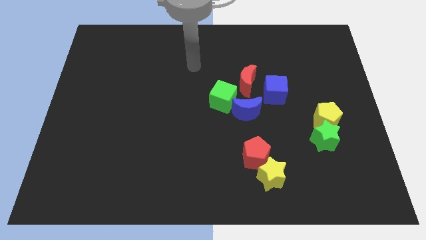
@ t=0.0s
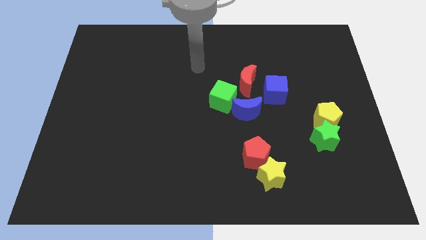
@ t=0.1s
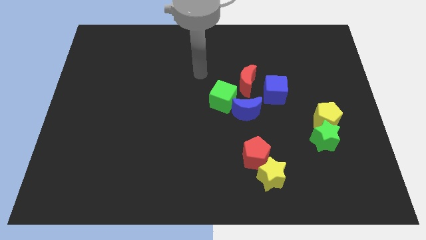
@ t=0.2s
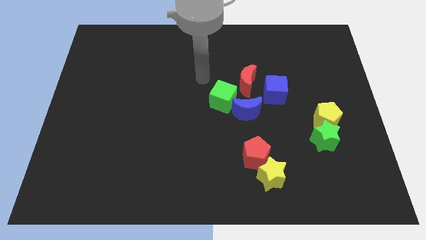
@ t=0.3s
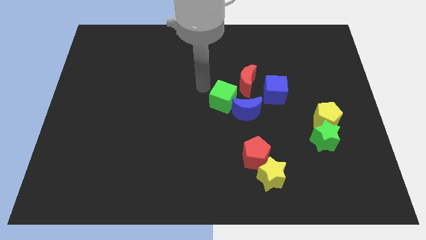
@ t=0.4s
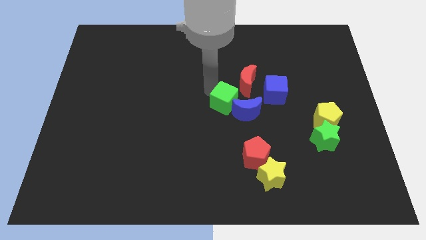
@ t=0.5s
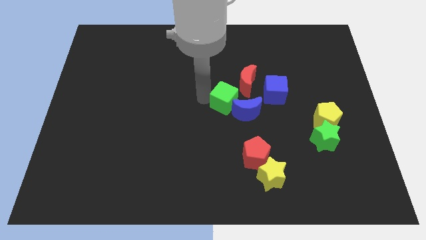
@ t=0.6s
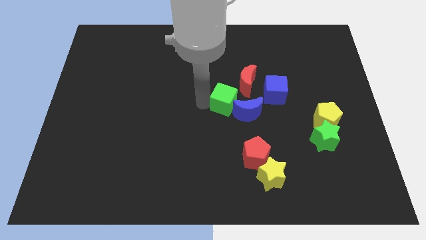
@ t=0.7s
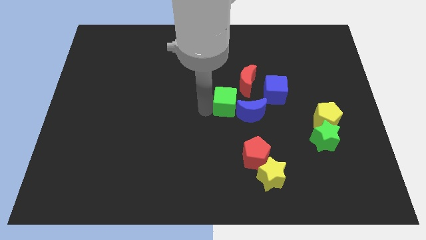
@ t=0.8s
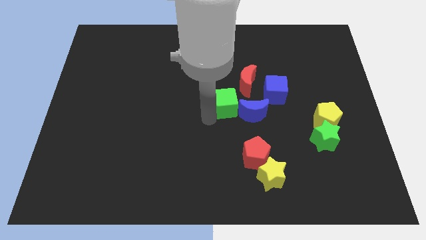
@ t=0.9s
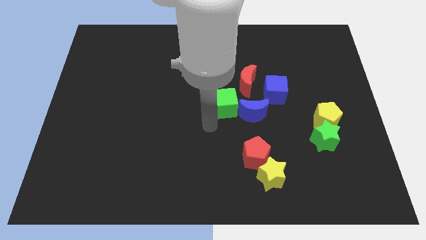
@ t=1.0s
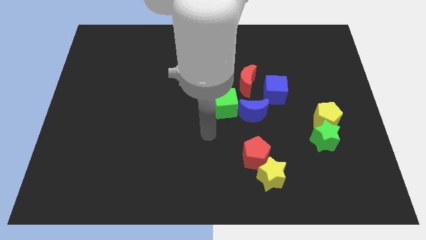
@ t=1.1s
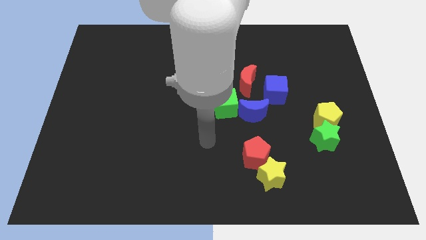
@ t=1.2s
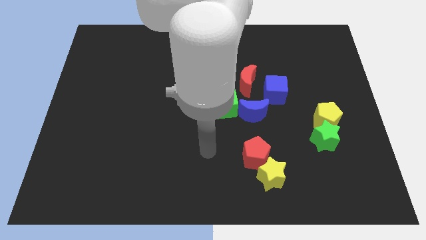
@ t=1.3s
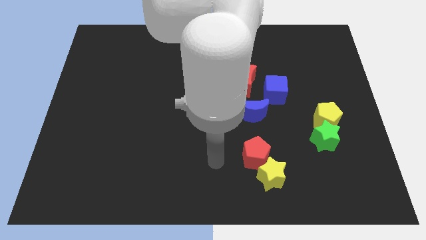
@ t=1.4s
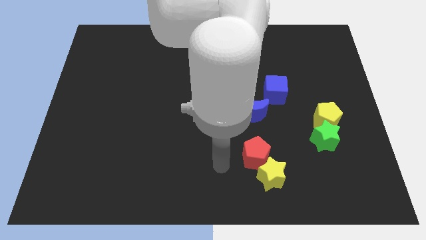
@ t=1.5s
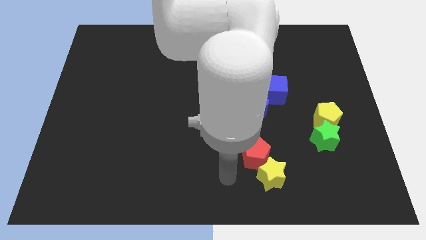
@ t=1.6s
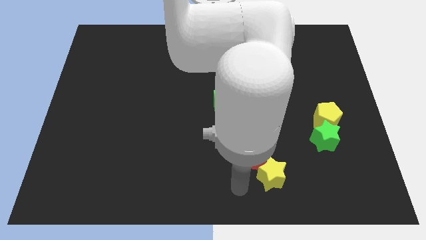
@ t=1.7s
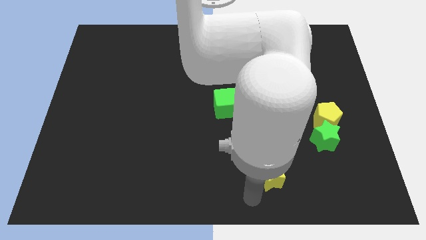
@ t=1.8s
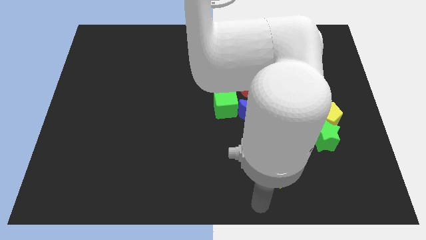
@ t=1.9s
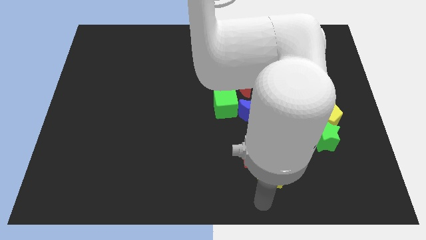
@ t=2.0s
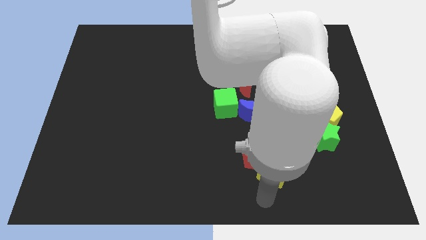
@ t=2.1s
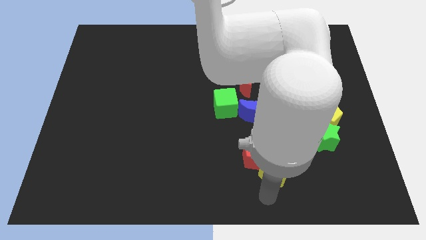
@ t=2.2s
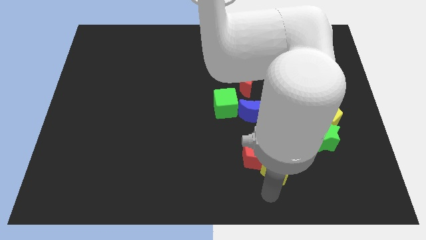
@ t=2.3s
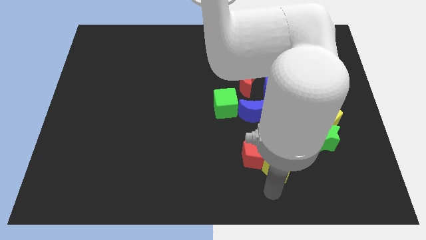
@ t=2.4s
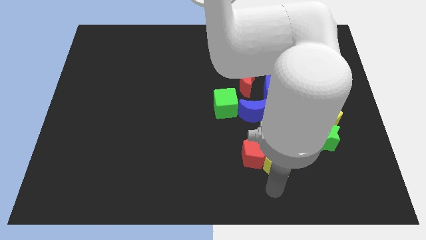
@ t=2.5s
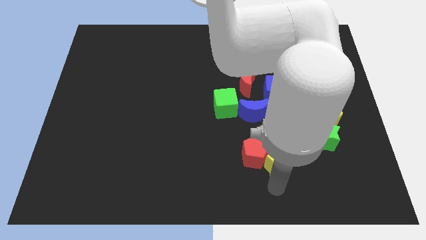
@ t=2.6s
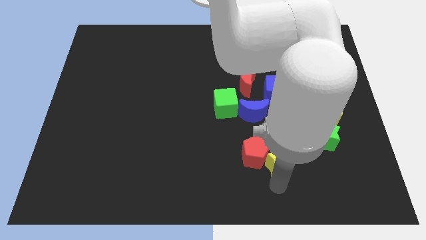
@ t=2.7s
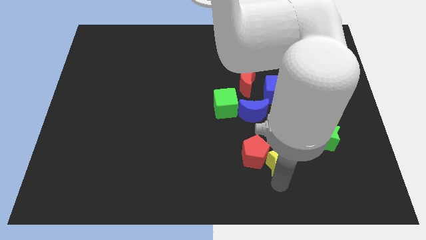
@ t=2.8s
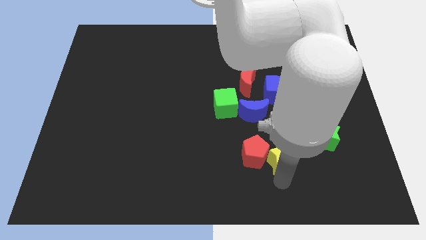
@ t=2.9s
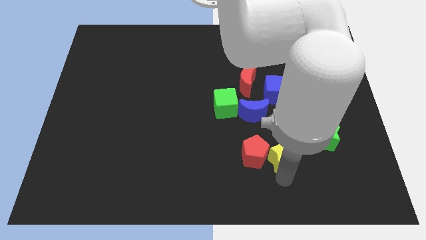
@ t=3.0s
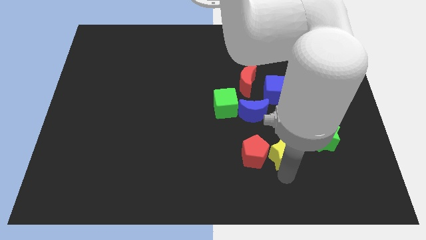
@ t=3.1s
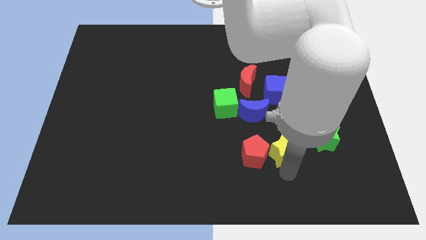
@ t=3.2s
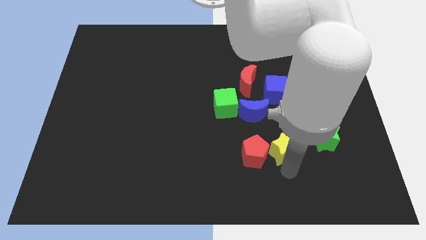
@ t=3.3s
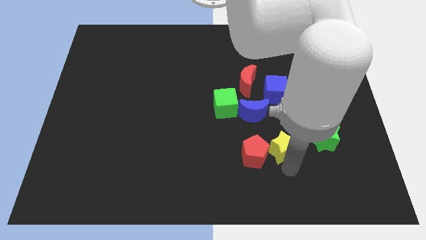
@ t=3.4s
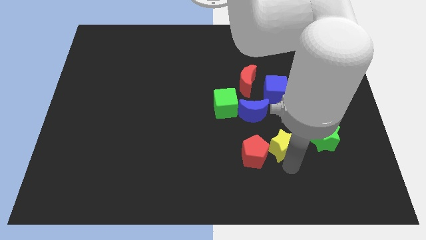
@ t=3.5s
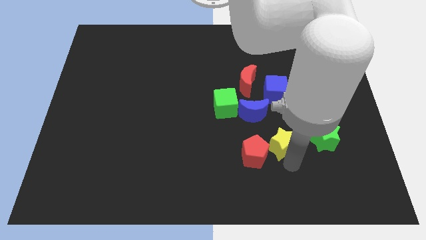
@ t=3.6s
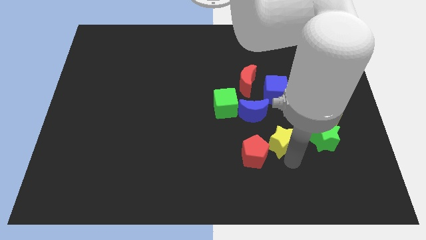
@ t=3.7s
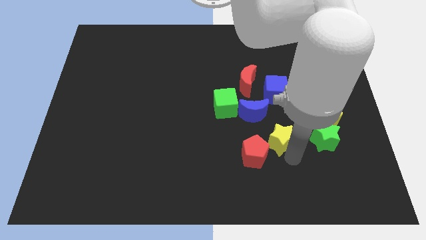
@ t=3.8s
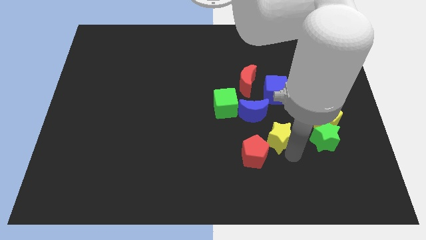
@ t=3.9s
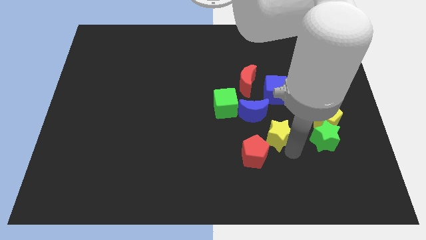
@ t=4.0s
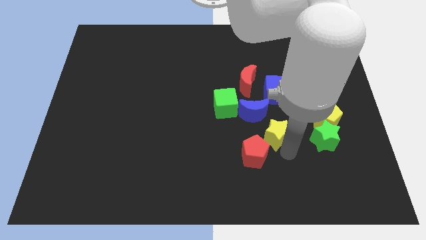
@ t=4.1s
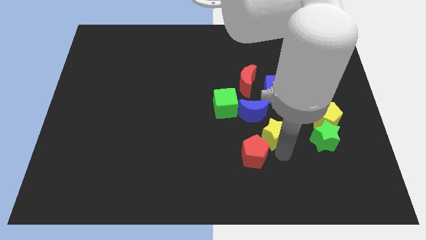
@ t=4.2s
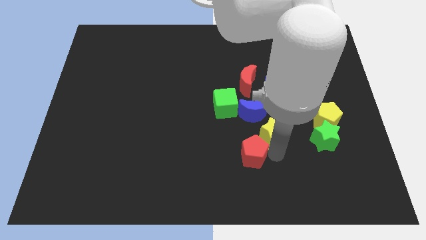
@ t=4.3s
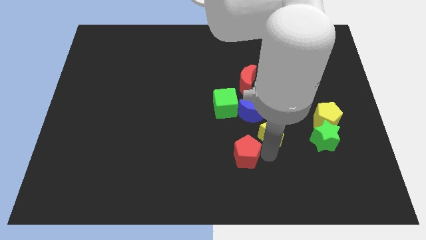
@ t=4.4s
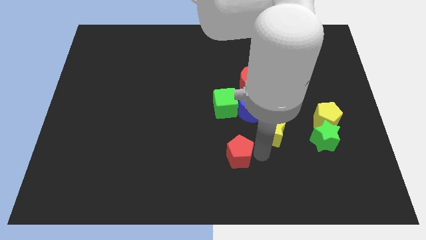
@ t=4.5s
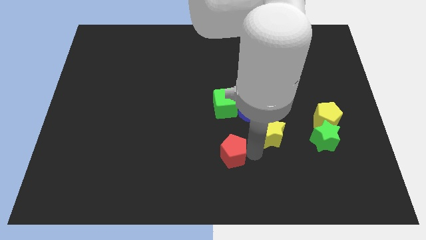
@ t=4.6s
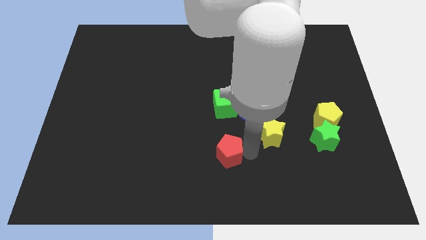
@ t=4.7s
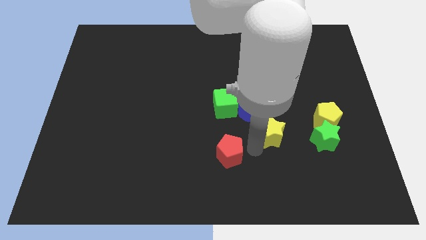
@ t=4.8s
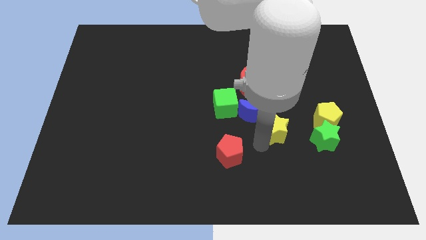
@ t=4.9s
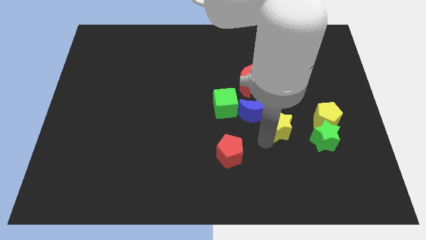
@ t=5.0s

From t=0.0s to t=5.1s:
move the yellow star just right of the blue moon

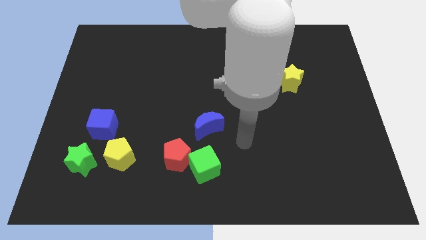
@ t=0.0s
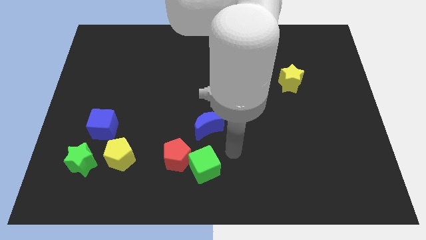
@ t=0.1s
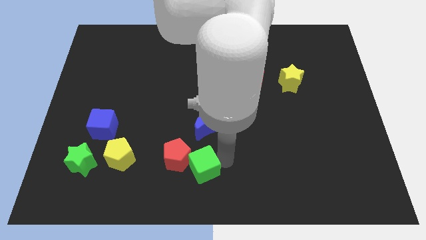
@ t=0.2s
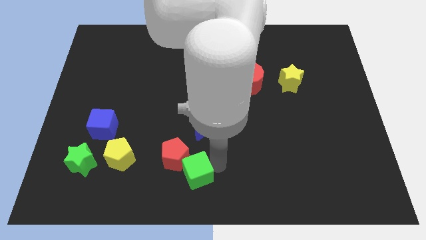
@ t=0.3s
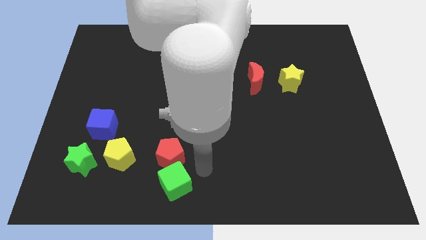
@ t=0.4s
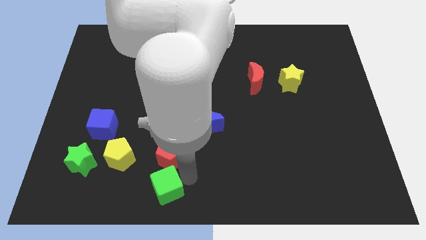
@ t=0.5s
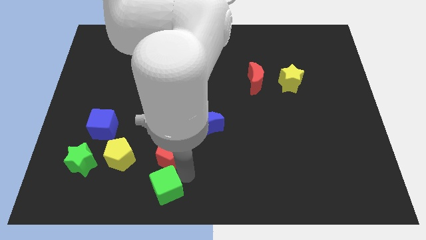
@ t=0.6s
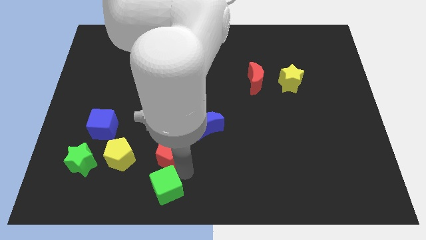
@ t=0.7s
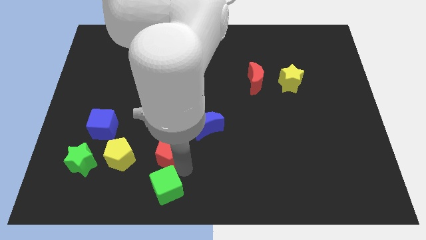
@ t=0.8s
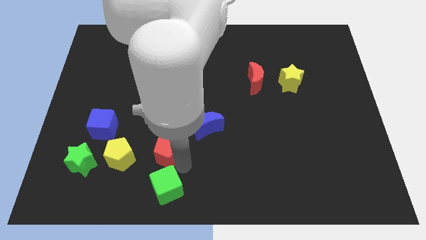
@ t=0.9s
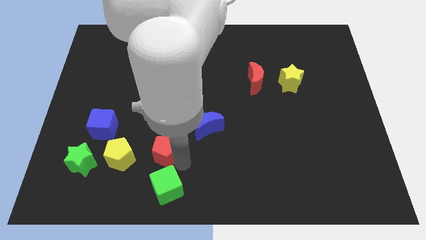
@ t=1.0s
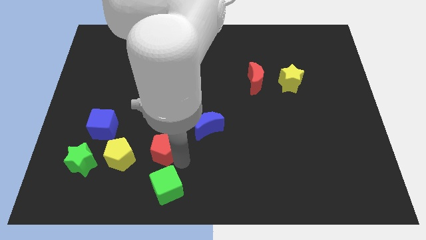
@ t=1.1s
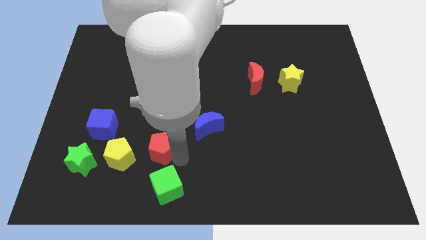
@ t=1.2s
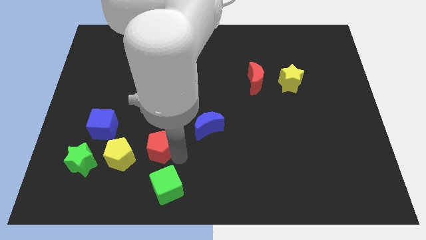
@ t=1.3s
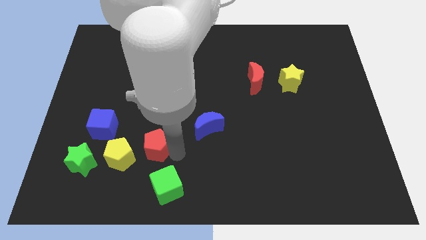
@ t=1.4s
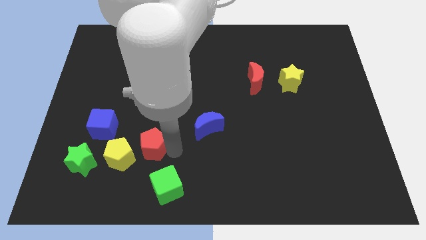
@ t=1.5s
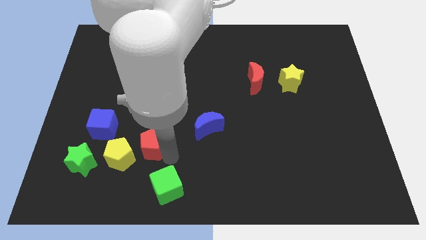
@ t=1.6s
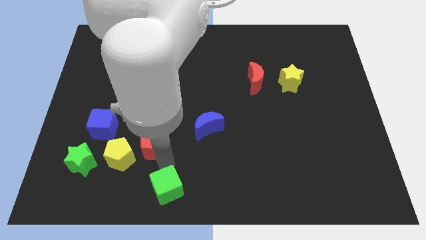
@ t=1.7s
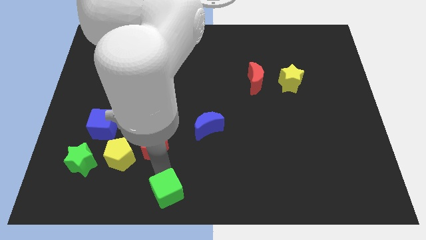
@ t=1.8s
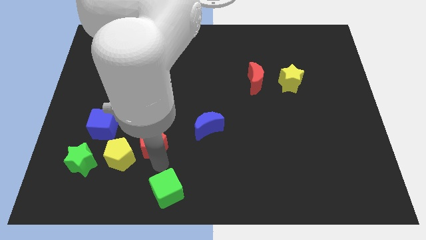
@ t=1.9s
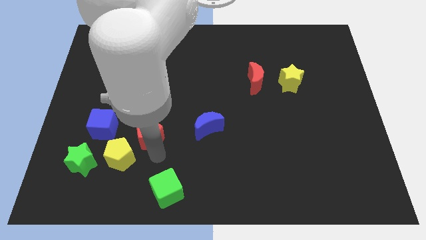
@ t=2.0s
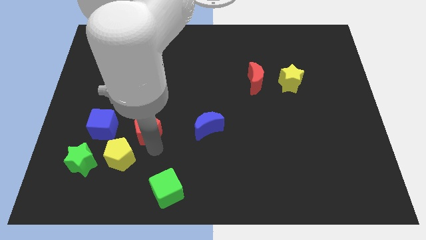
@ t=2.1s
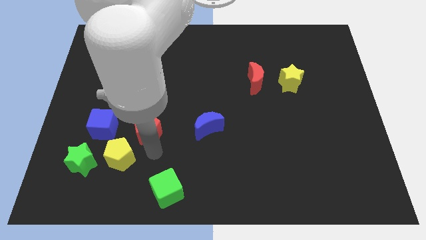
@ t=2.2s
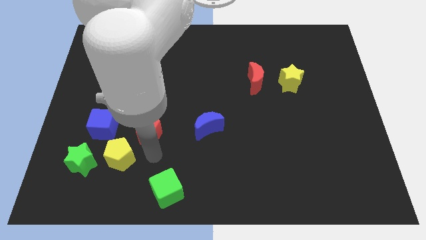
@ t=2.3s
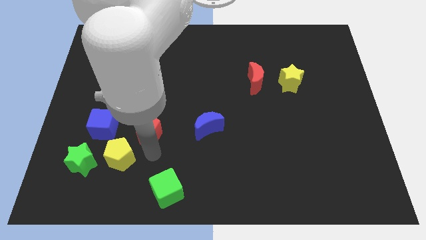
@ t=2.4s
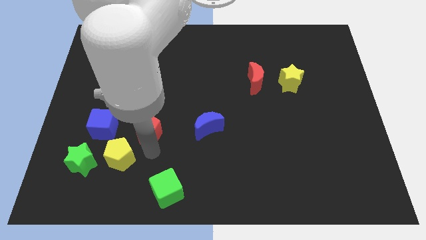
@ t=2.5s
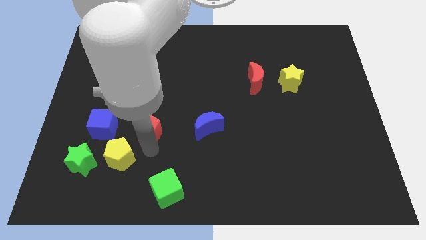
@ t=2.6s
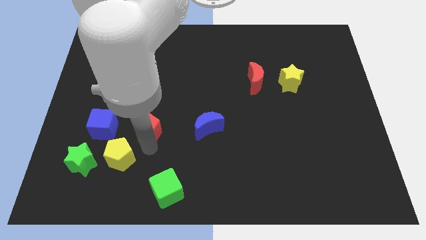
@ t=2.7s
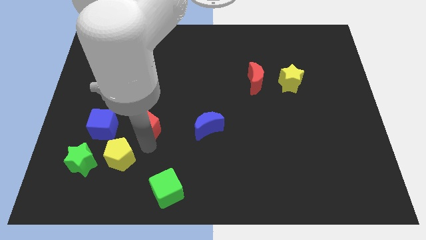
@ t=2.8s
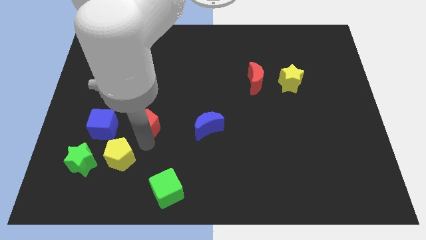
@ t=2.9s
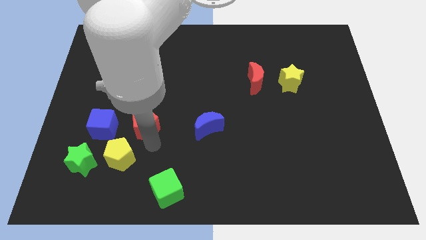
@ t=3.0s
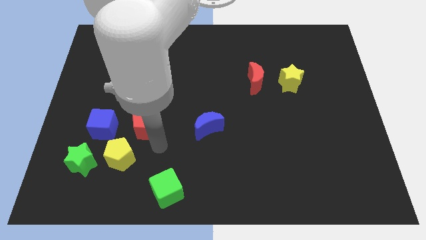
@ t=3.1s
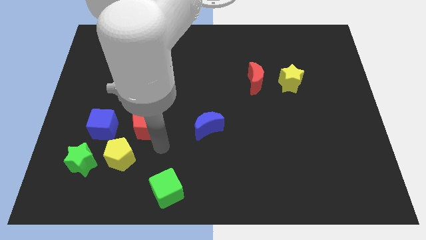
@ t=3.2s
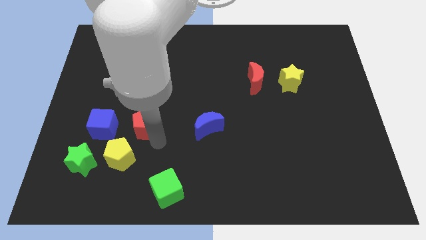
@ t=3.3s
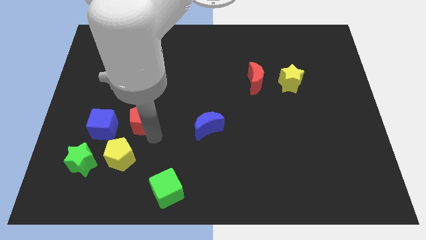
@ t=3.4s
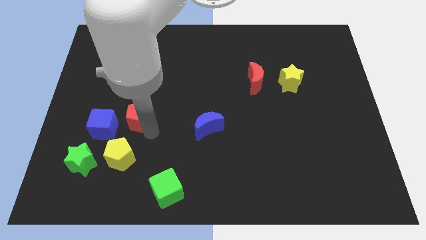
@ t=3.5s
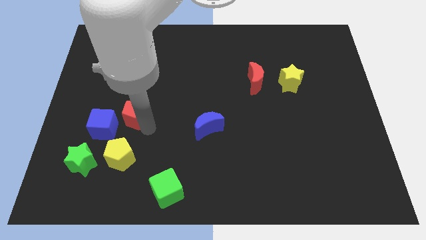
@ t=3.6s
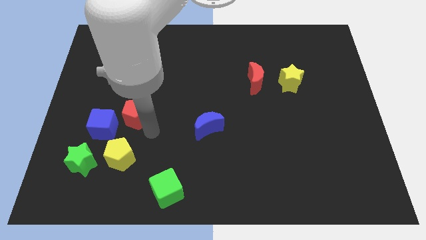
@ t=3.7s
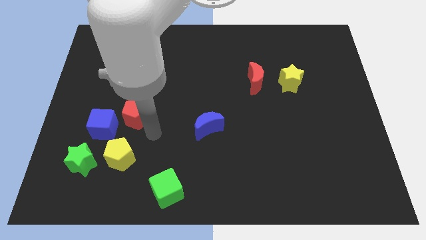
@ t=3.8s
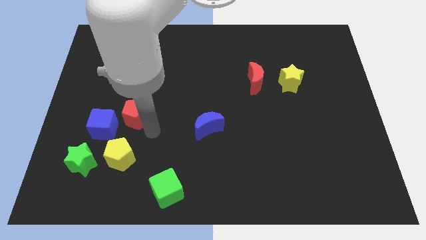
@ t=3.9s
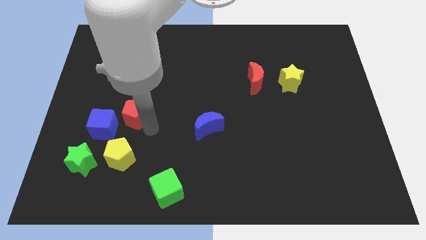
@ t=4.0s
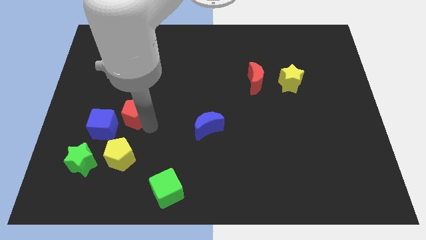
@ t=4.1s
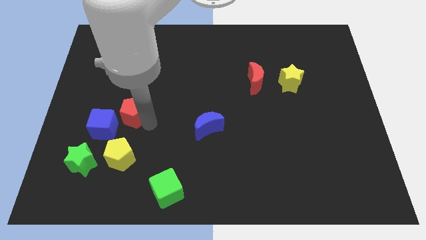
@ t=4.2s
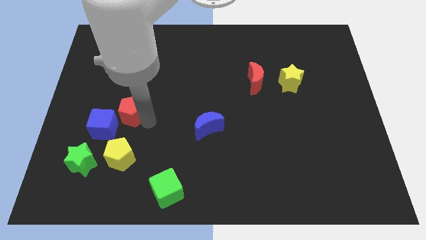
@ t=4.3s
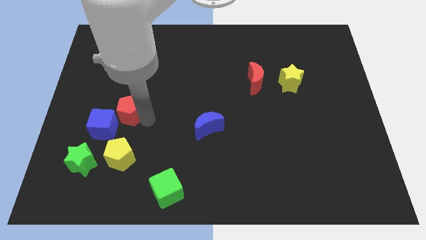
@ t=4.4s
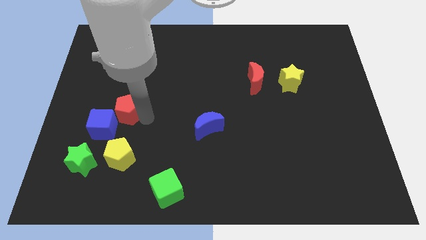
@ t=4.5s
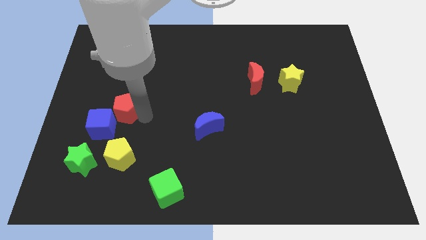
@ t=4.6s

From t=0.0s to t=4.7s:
slide the red pentagon to the top of the blue cube
